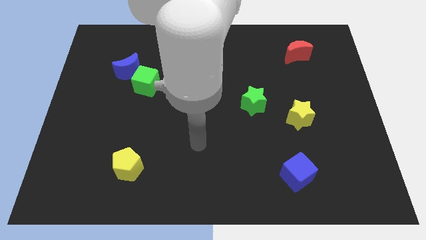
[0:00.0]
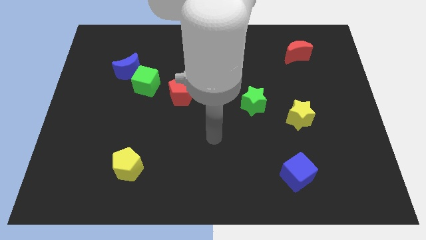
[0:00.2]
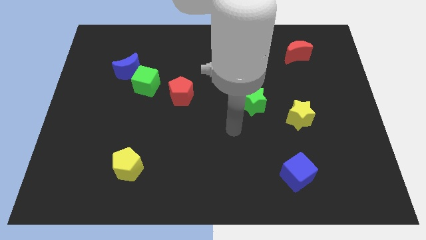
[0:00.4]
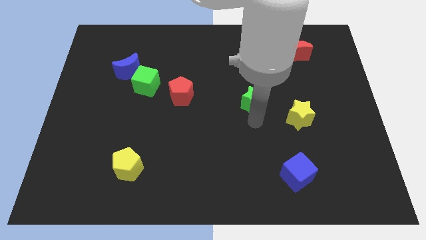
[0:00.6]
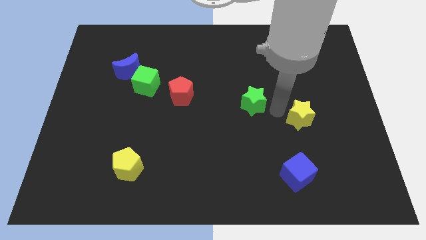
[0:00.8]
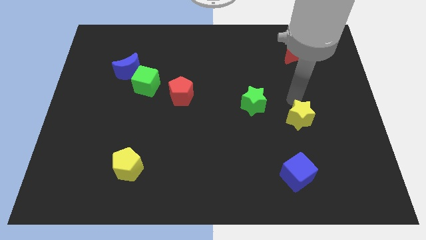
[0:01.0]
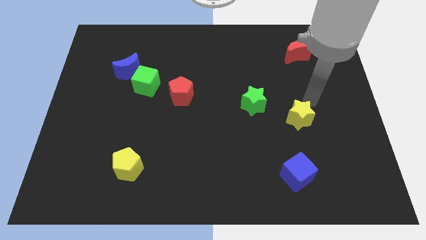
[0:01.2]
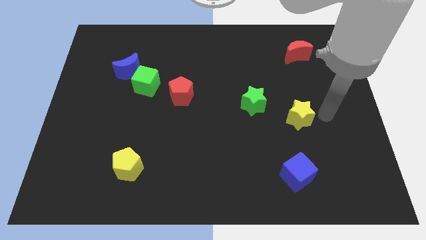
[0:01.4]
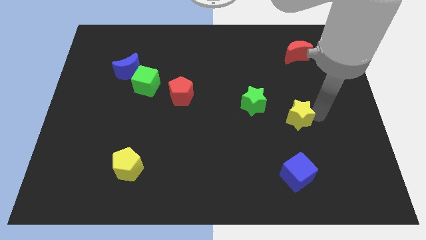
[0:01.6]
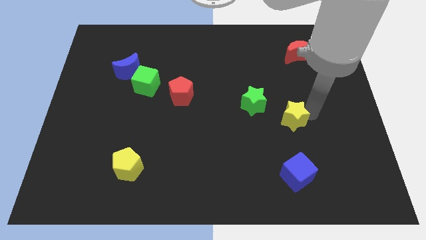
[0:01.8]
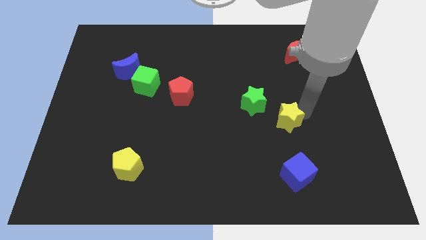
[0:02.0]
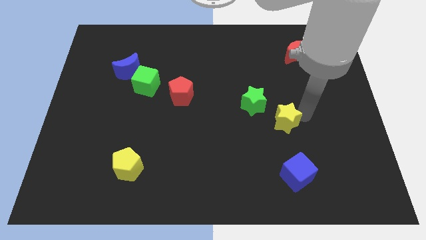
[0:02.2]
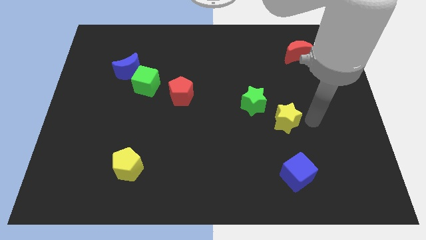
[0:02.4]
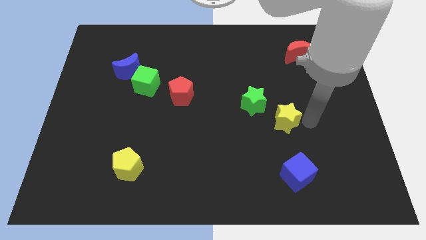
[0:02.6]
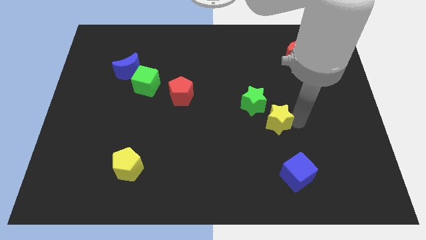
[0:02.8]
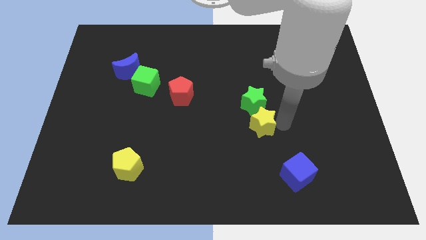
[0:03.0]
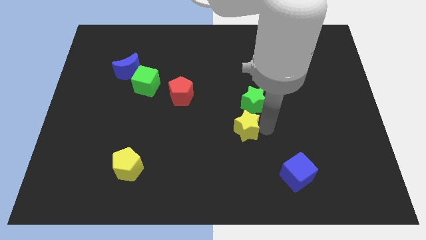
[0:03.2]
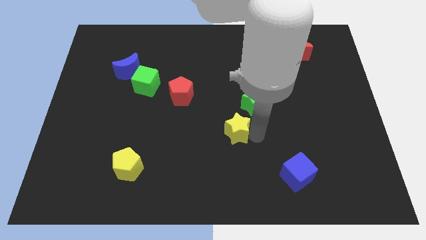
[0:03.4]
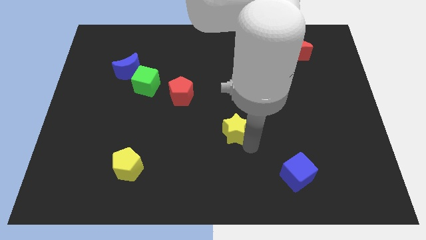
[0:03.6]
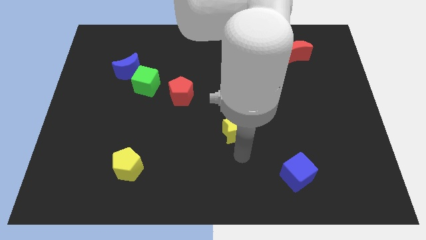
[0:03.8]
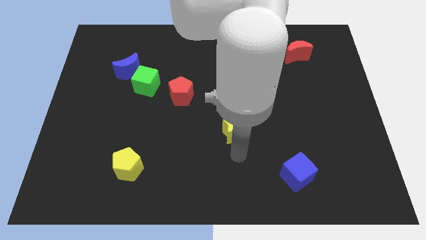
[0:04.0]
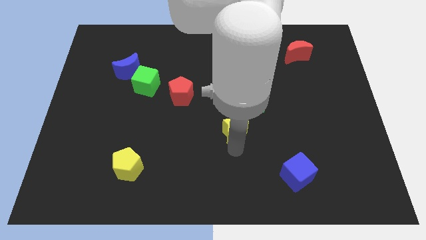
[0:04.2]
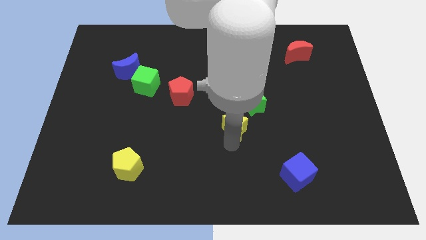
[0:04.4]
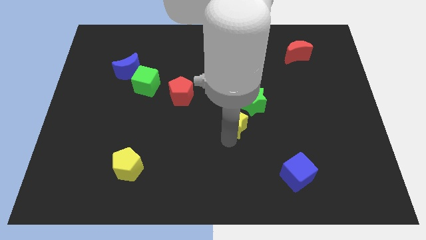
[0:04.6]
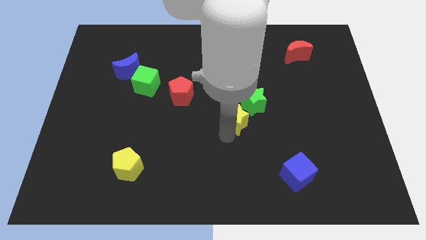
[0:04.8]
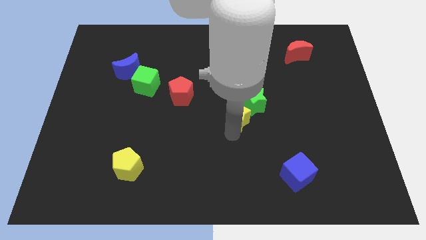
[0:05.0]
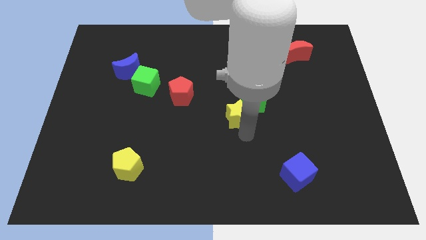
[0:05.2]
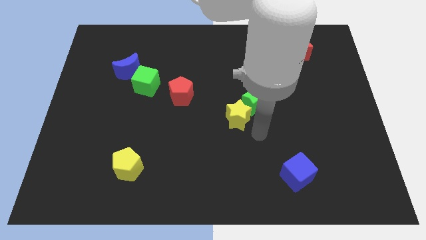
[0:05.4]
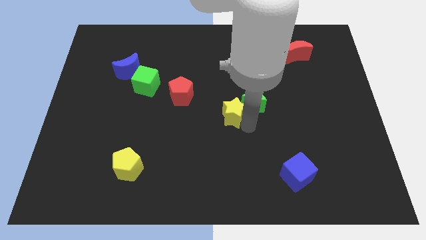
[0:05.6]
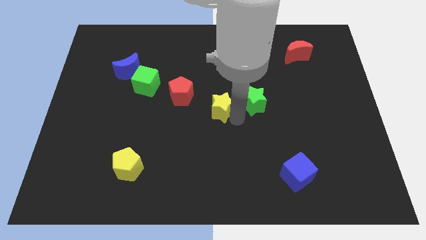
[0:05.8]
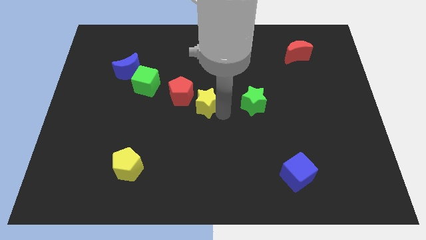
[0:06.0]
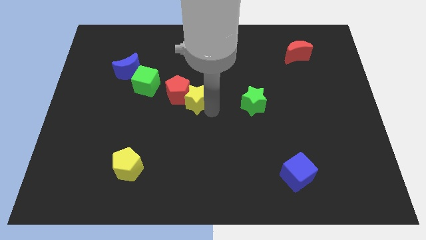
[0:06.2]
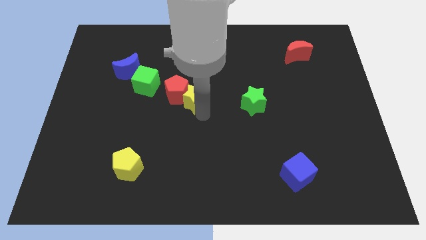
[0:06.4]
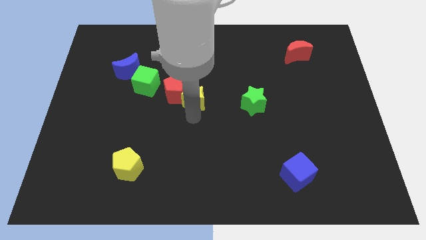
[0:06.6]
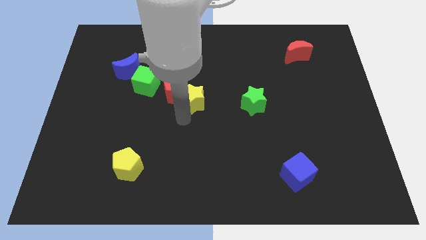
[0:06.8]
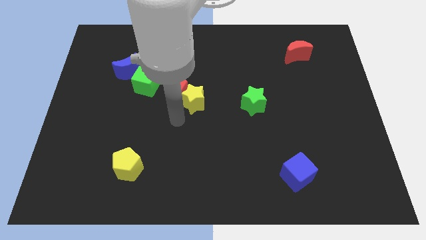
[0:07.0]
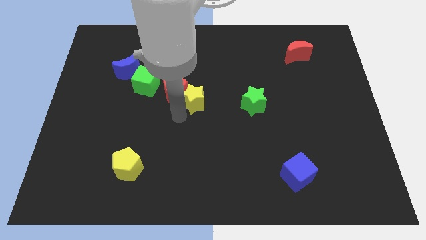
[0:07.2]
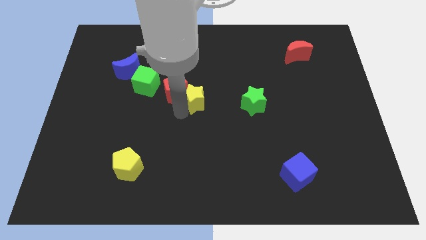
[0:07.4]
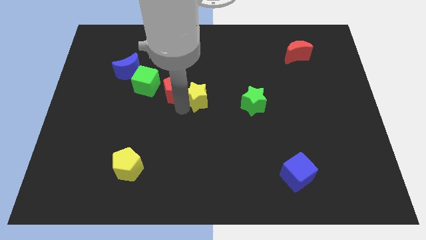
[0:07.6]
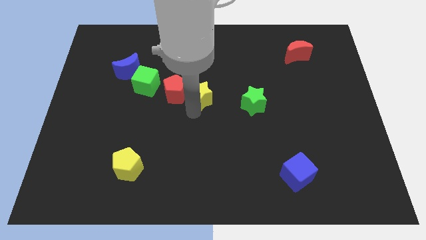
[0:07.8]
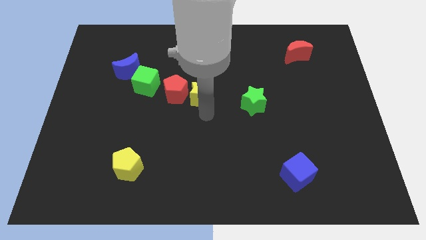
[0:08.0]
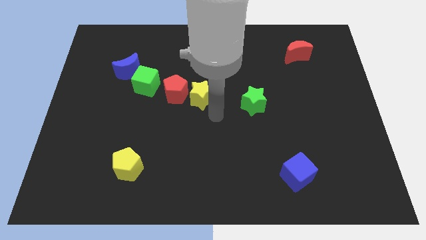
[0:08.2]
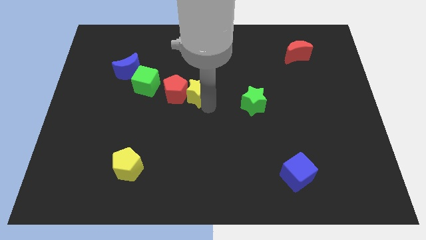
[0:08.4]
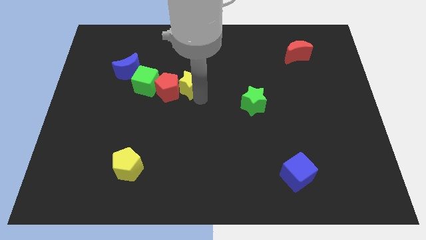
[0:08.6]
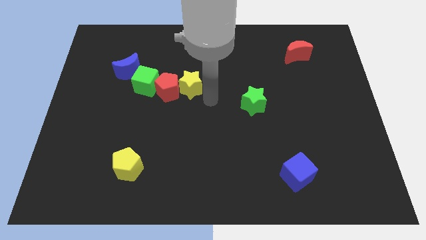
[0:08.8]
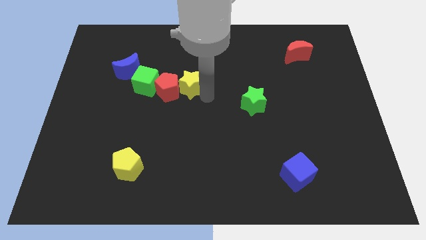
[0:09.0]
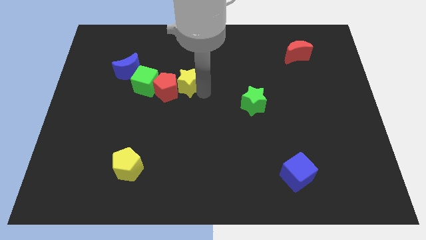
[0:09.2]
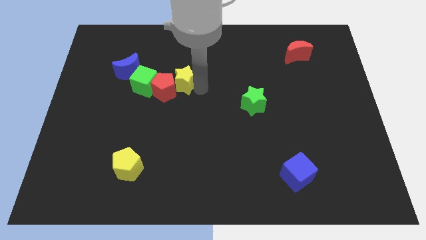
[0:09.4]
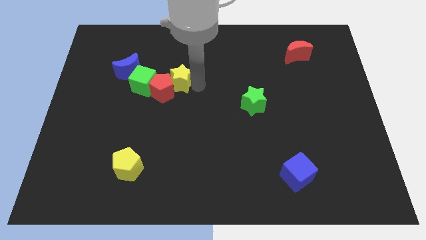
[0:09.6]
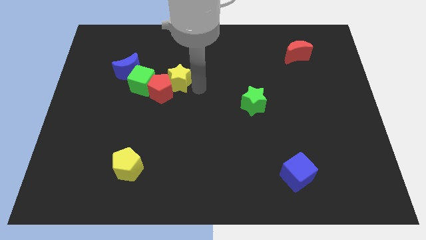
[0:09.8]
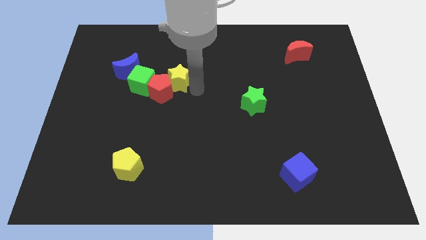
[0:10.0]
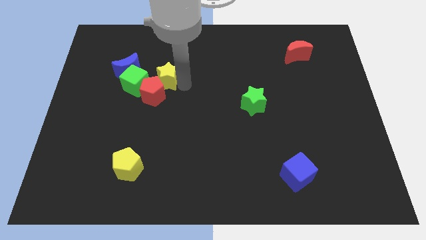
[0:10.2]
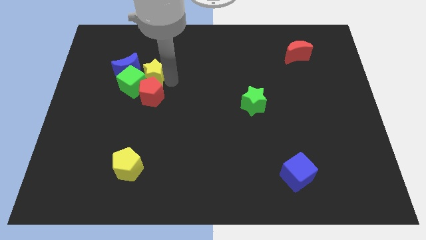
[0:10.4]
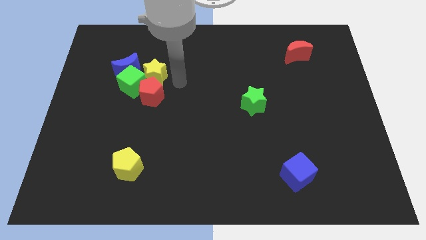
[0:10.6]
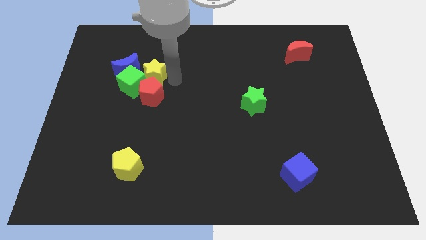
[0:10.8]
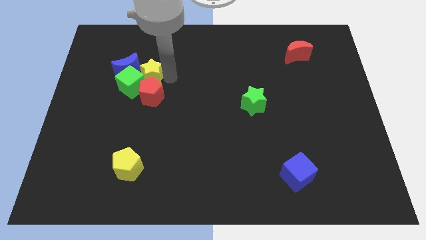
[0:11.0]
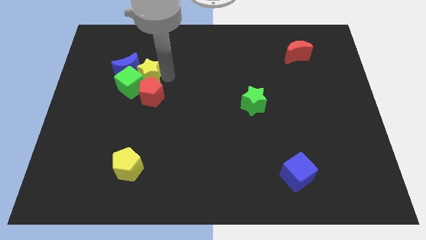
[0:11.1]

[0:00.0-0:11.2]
push the yellow star to the blue moon

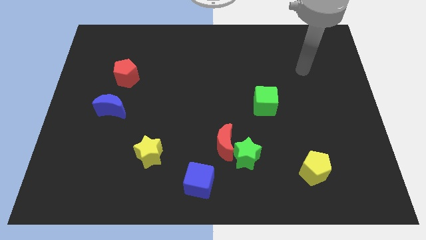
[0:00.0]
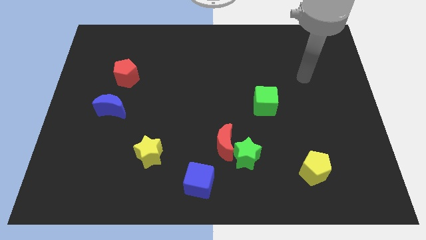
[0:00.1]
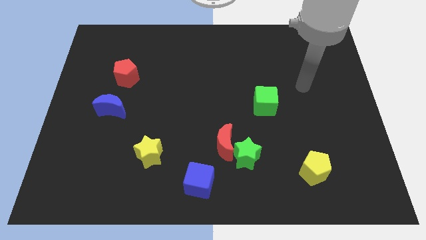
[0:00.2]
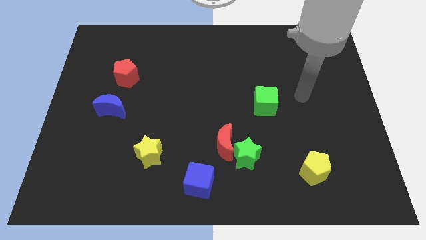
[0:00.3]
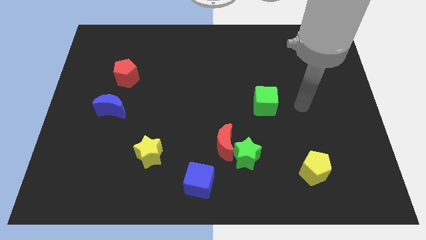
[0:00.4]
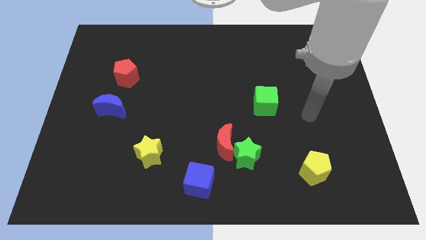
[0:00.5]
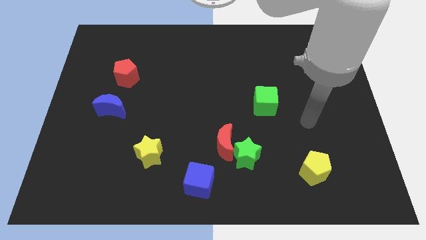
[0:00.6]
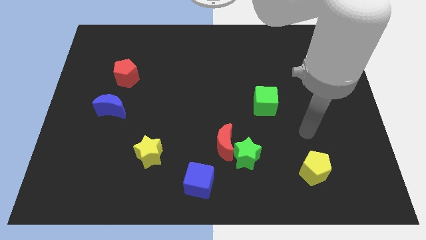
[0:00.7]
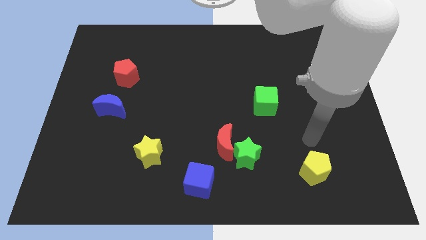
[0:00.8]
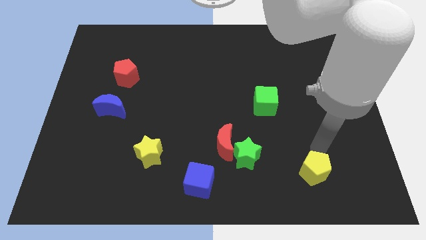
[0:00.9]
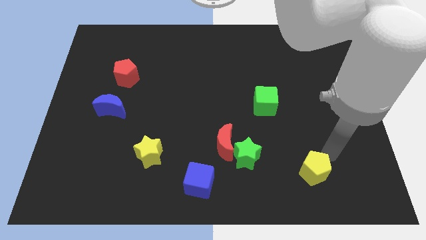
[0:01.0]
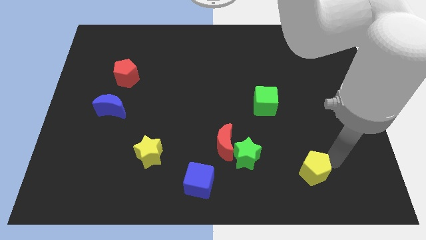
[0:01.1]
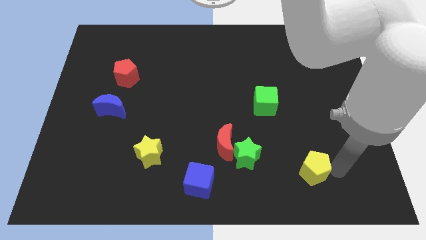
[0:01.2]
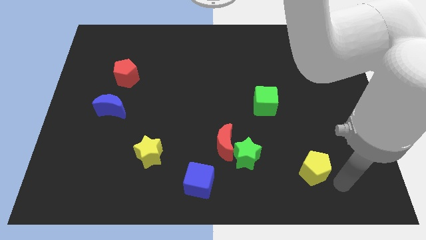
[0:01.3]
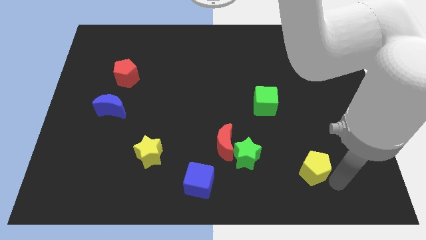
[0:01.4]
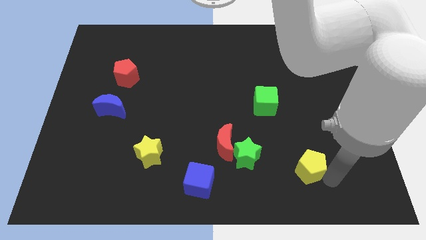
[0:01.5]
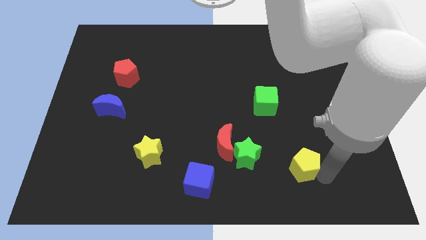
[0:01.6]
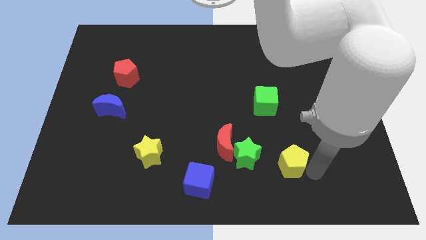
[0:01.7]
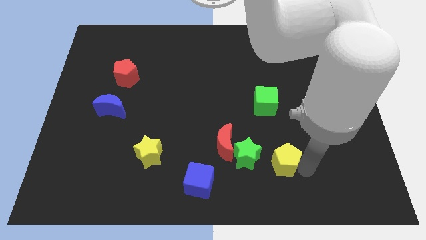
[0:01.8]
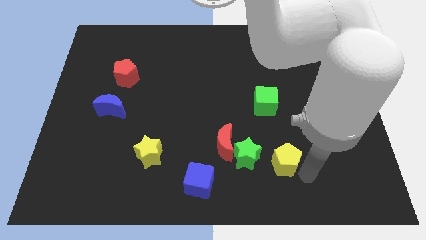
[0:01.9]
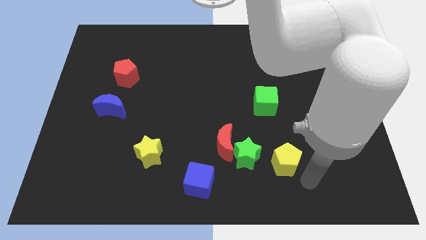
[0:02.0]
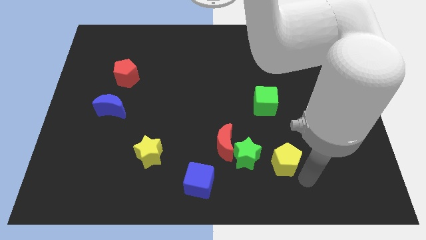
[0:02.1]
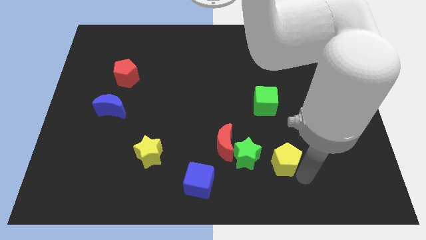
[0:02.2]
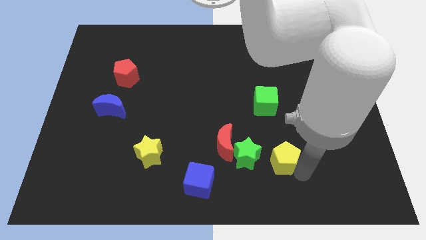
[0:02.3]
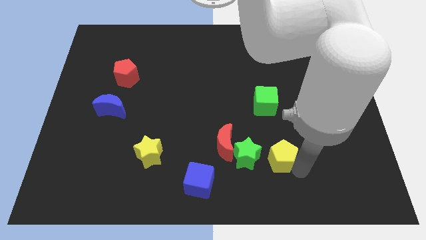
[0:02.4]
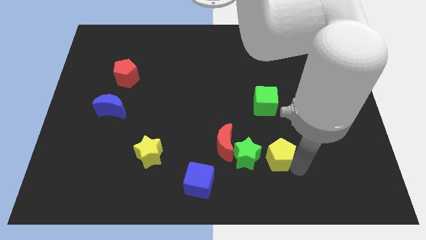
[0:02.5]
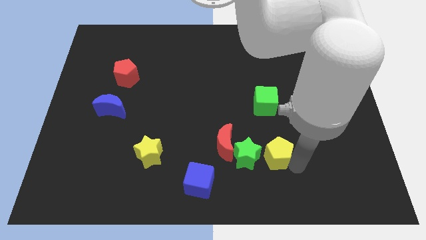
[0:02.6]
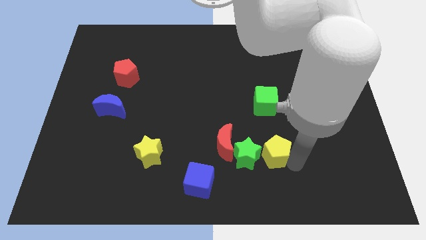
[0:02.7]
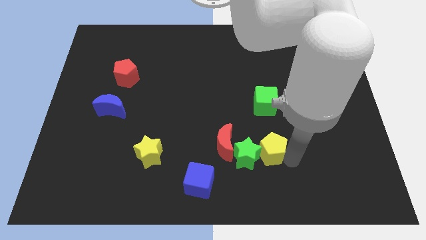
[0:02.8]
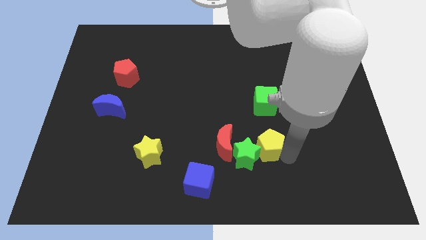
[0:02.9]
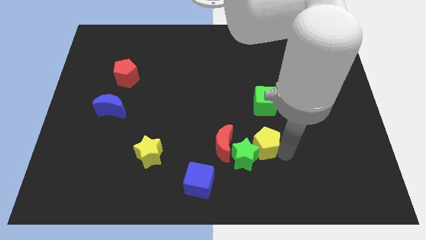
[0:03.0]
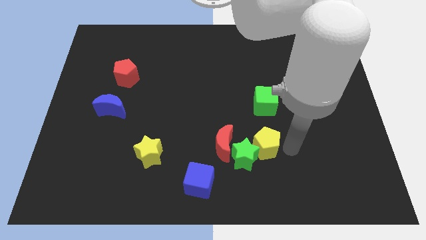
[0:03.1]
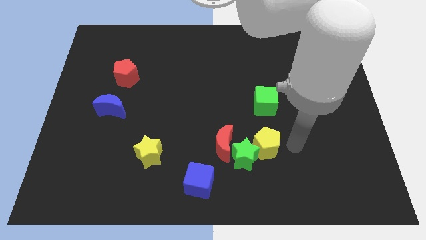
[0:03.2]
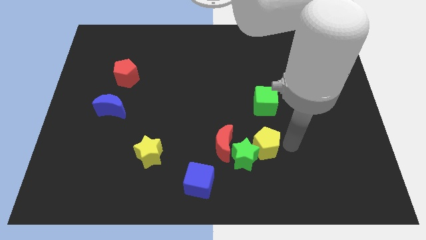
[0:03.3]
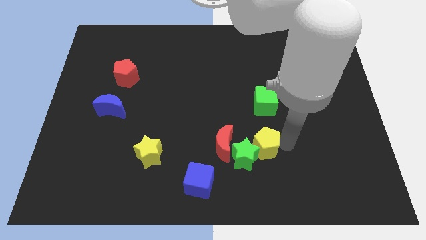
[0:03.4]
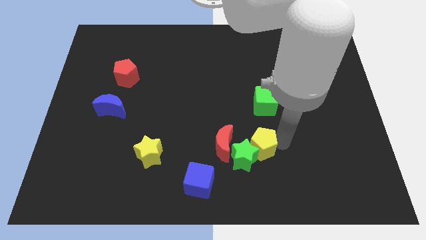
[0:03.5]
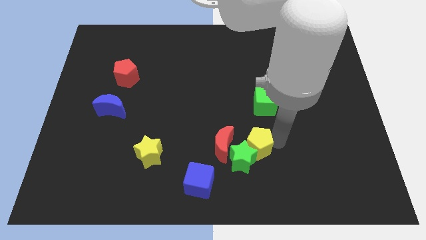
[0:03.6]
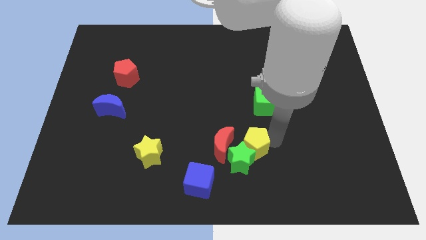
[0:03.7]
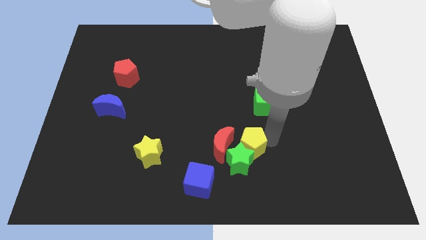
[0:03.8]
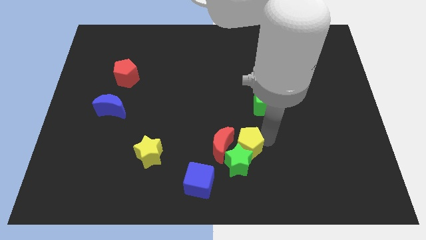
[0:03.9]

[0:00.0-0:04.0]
move the yellow pentagon to the red moon
